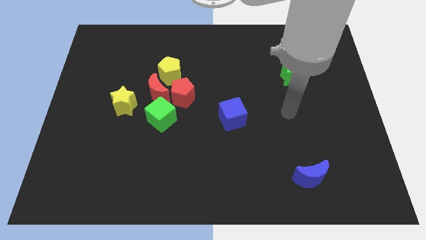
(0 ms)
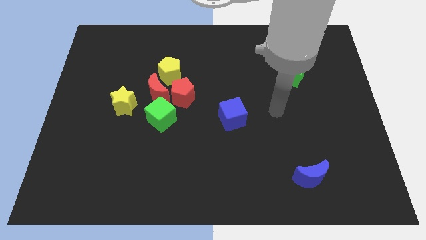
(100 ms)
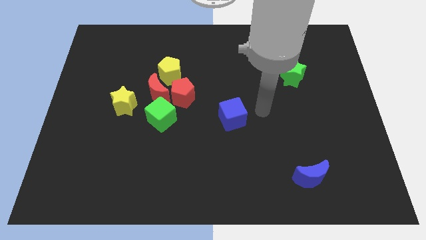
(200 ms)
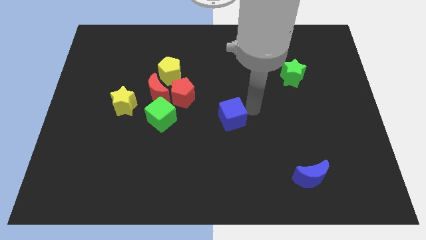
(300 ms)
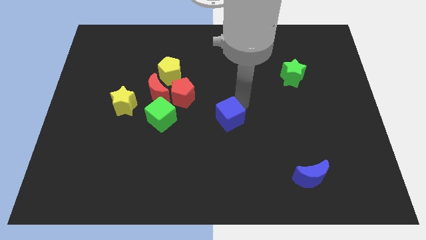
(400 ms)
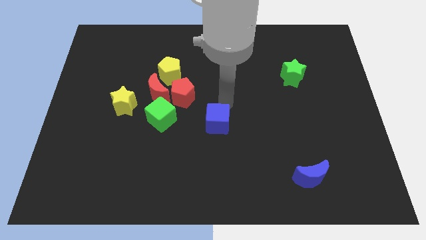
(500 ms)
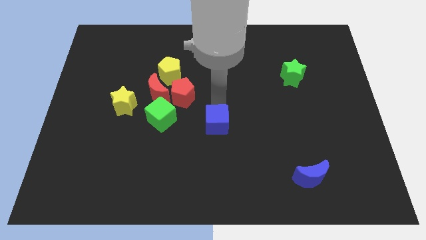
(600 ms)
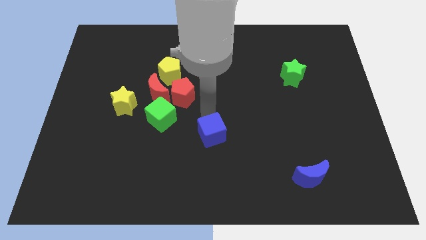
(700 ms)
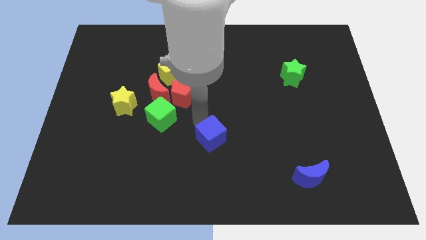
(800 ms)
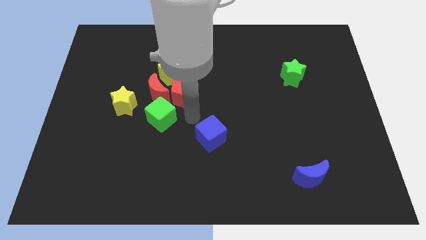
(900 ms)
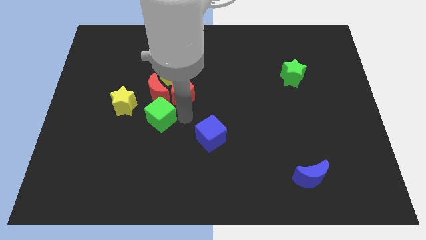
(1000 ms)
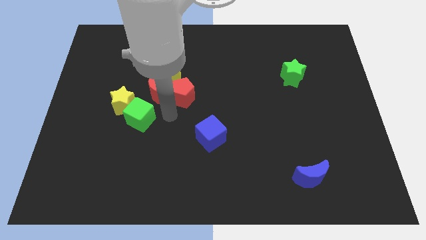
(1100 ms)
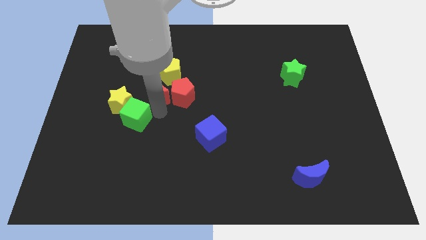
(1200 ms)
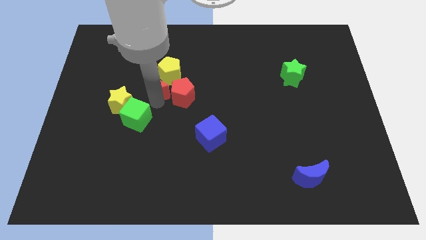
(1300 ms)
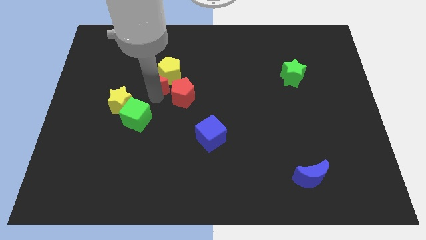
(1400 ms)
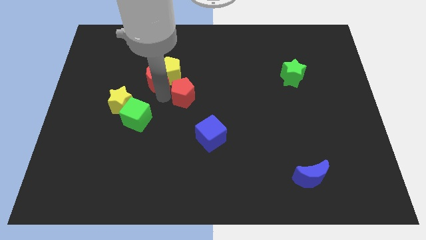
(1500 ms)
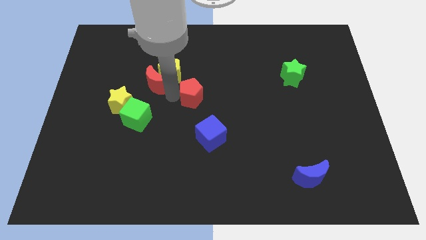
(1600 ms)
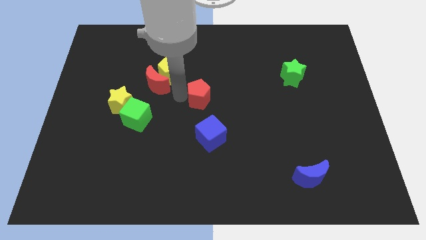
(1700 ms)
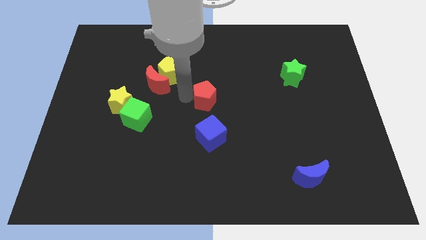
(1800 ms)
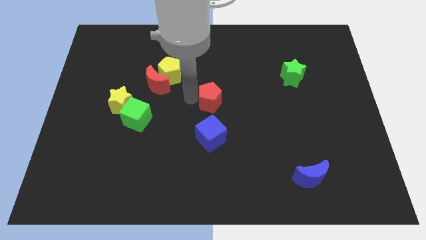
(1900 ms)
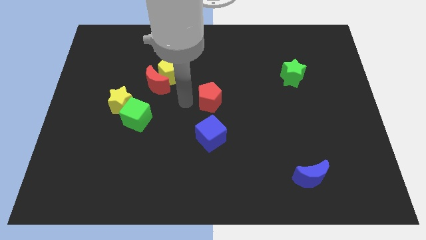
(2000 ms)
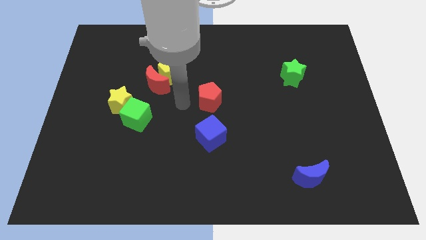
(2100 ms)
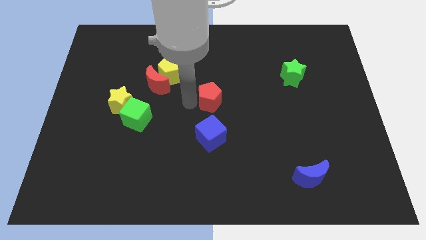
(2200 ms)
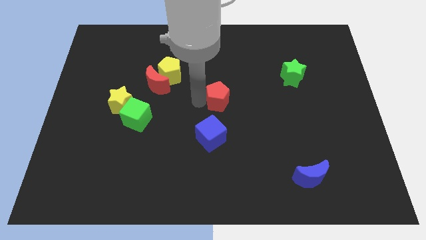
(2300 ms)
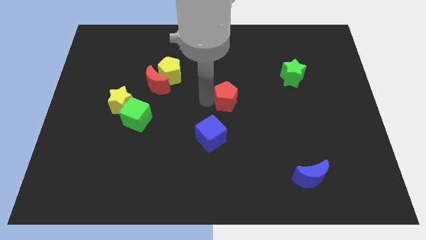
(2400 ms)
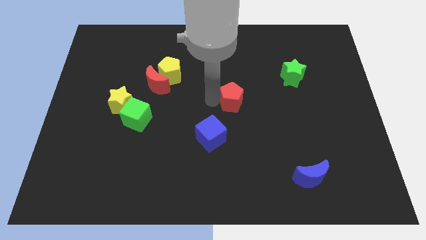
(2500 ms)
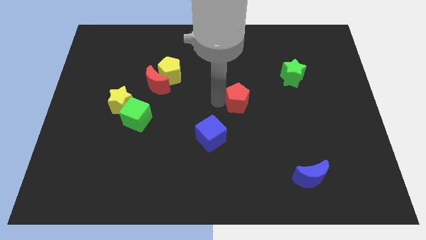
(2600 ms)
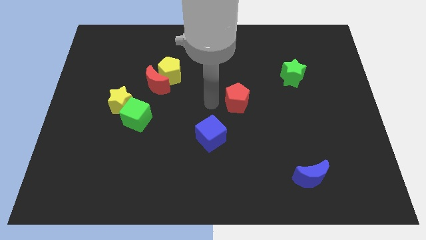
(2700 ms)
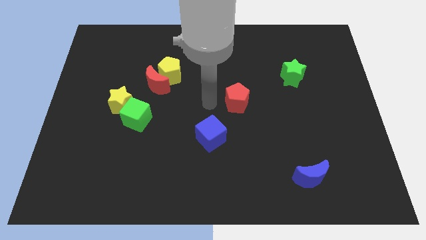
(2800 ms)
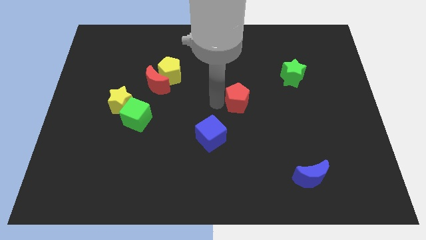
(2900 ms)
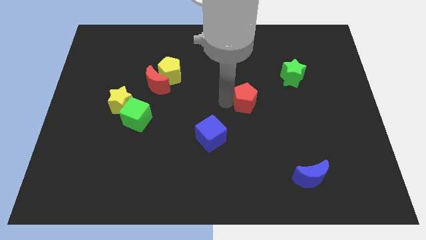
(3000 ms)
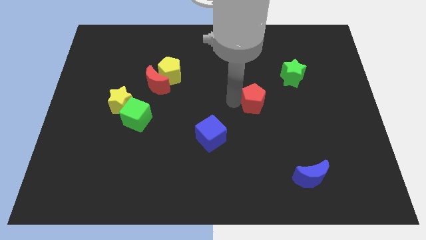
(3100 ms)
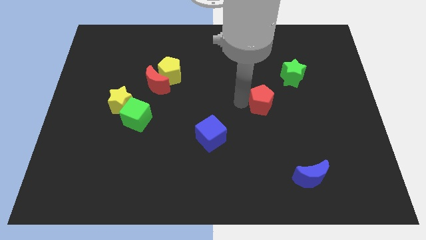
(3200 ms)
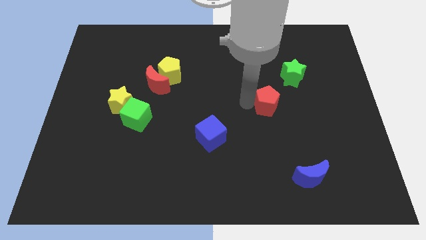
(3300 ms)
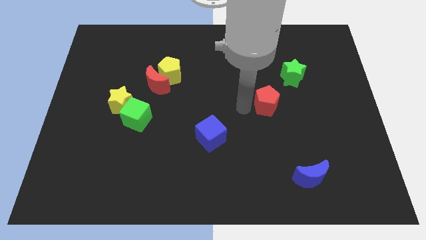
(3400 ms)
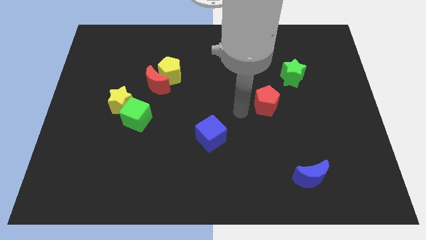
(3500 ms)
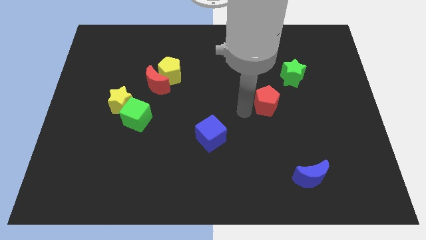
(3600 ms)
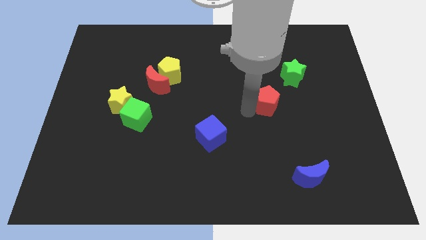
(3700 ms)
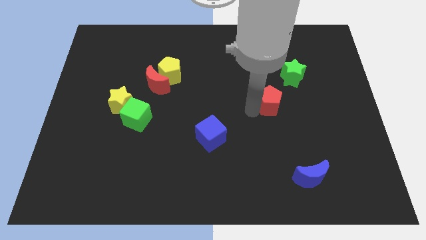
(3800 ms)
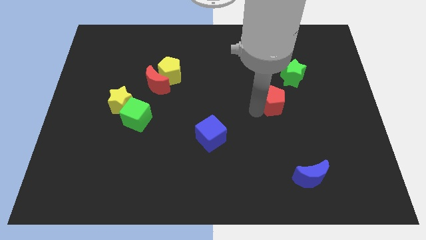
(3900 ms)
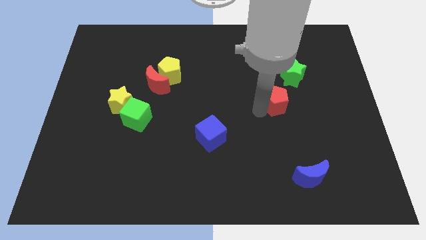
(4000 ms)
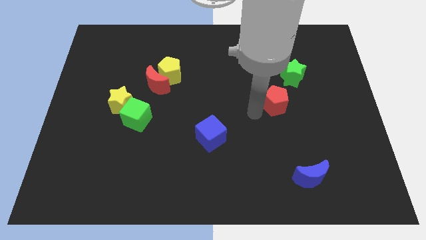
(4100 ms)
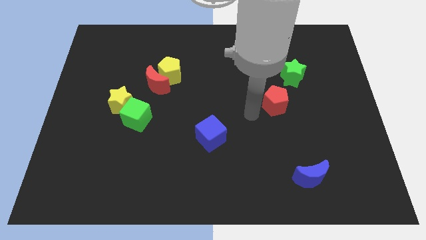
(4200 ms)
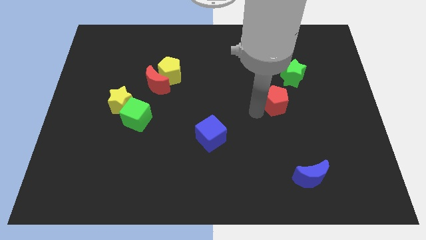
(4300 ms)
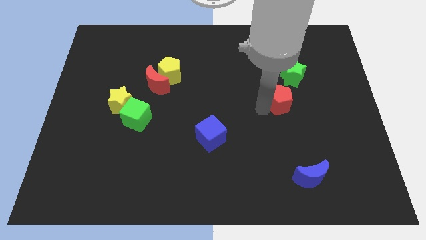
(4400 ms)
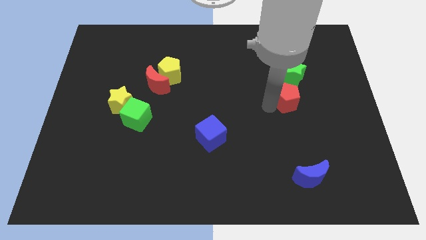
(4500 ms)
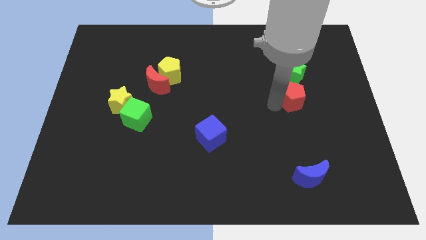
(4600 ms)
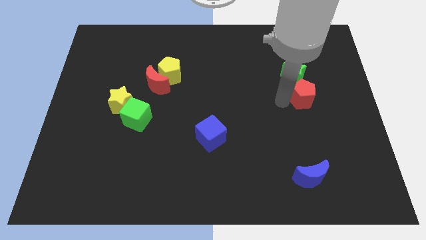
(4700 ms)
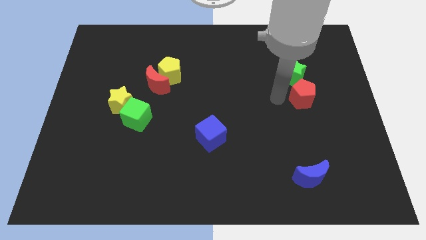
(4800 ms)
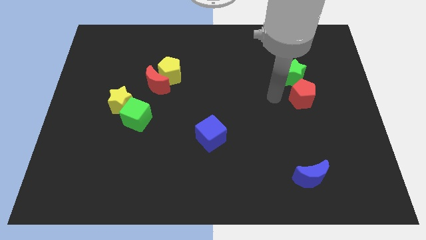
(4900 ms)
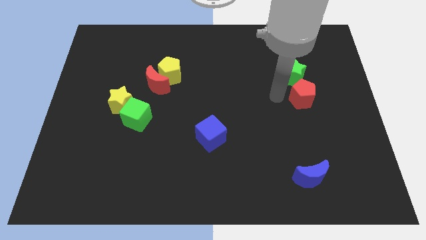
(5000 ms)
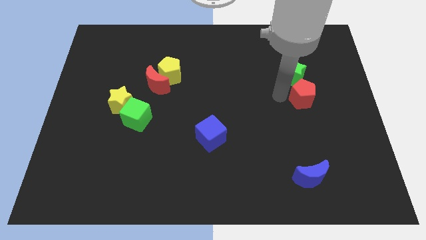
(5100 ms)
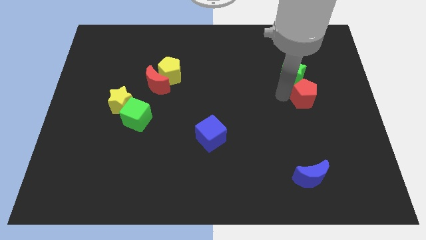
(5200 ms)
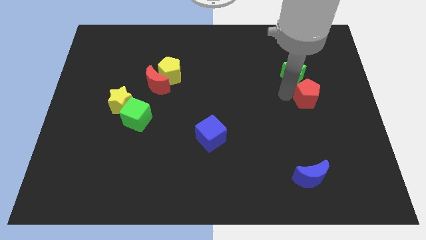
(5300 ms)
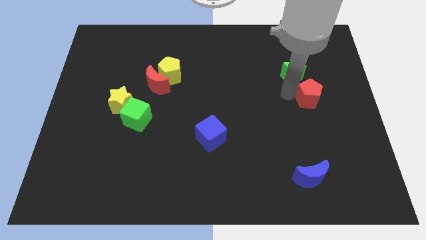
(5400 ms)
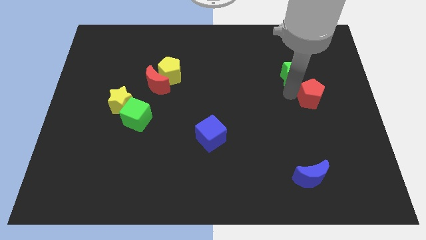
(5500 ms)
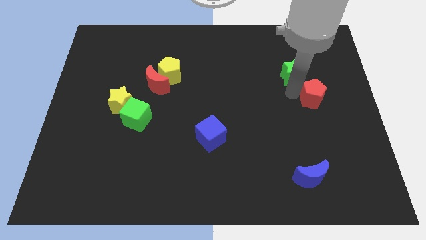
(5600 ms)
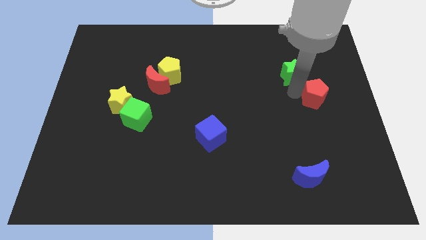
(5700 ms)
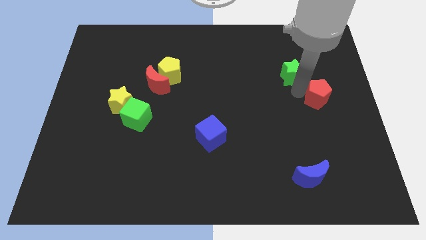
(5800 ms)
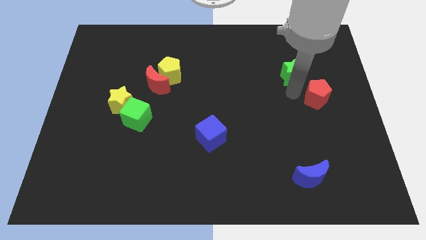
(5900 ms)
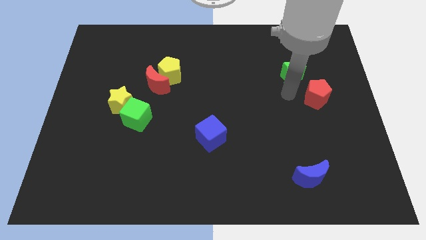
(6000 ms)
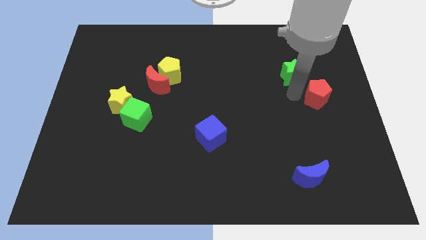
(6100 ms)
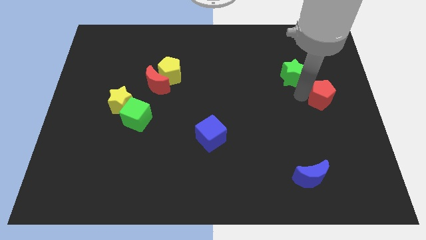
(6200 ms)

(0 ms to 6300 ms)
put the red pentagon to the right side of the board

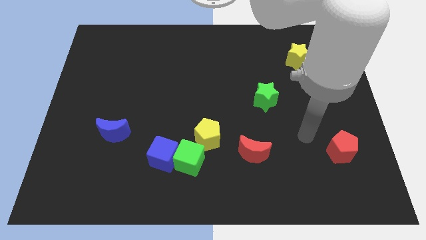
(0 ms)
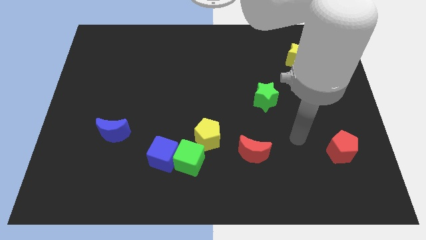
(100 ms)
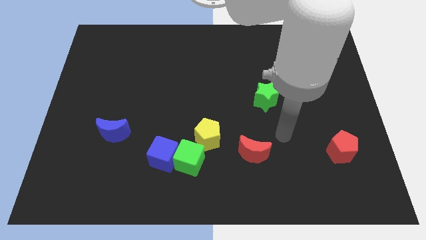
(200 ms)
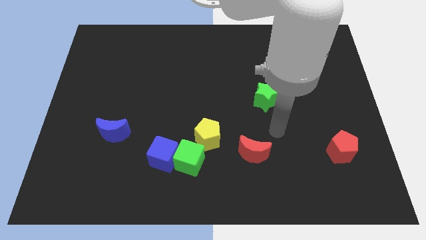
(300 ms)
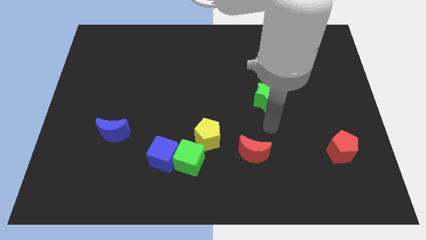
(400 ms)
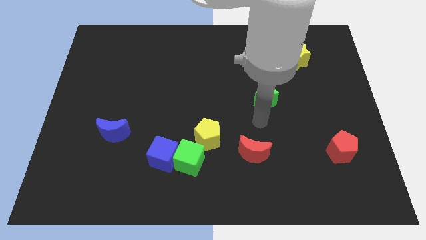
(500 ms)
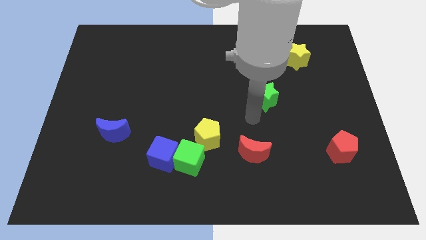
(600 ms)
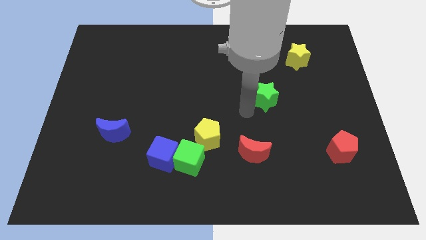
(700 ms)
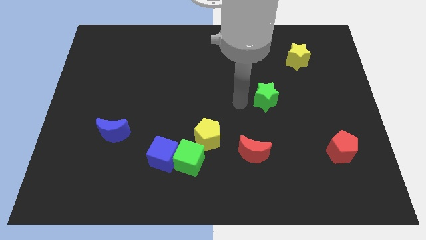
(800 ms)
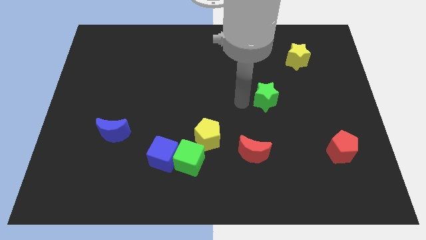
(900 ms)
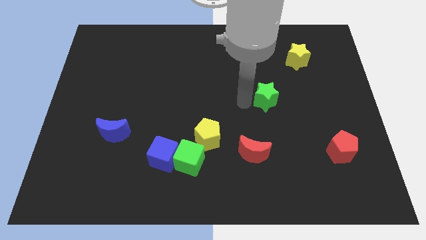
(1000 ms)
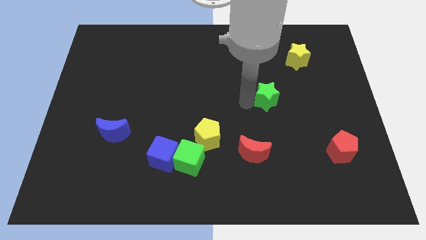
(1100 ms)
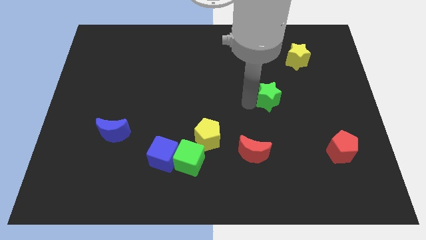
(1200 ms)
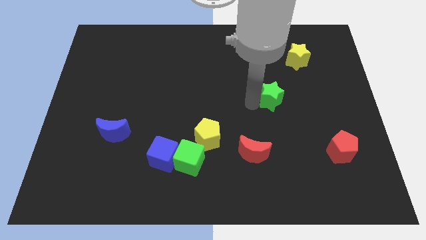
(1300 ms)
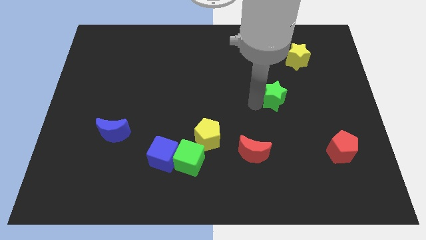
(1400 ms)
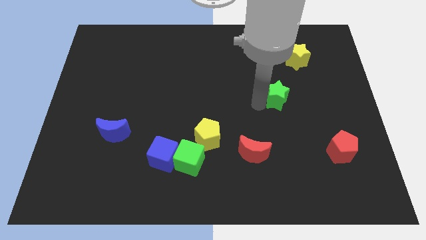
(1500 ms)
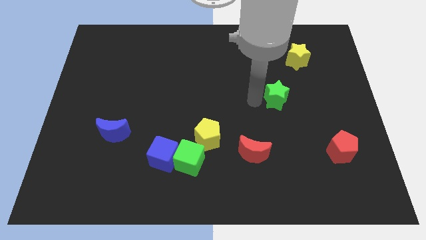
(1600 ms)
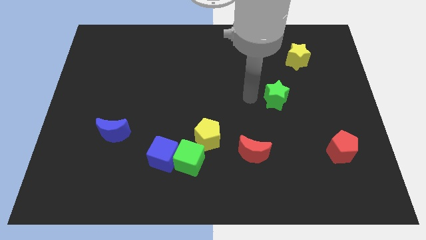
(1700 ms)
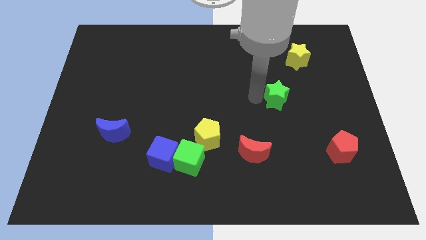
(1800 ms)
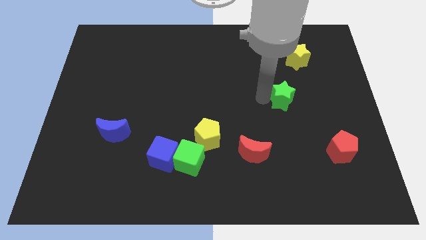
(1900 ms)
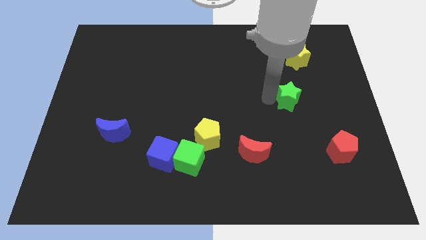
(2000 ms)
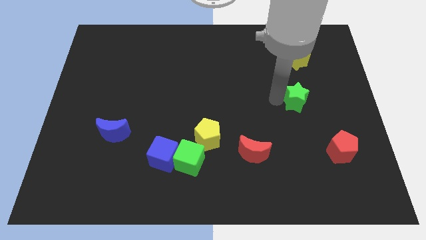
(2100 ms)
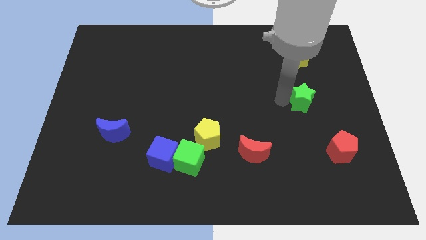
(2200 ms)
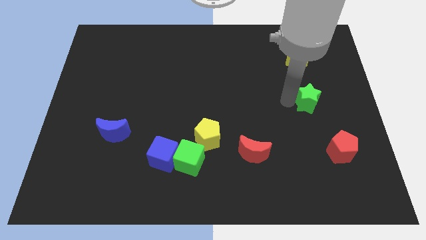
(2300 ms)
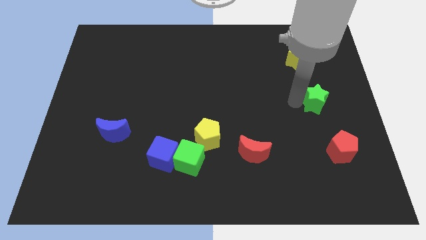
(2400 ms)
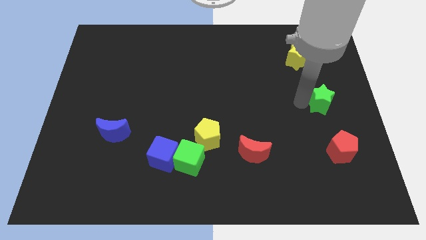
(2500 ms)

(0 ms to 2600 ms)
slide the green star to the center right
